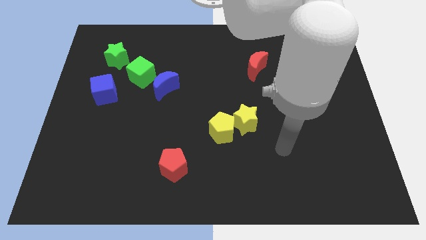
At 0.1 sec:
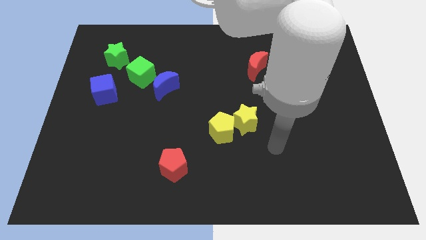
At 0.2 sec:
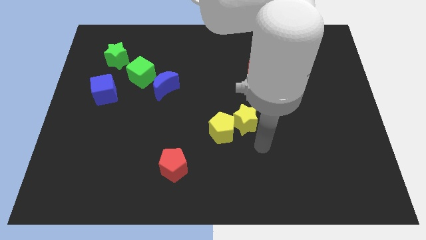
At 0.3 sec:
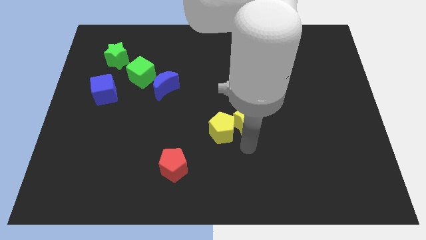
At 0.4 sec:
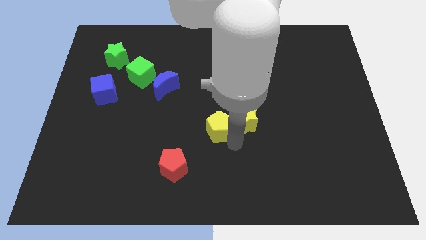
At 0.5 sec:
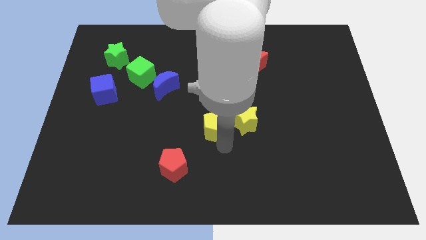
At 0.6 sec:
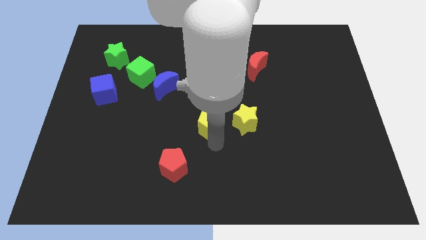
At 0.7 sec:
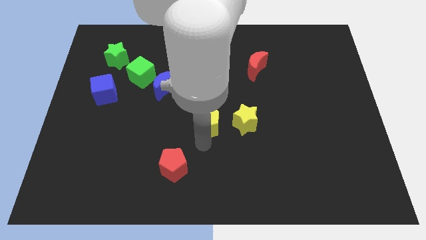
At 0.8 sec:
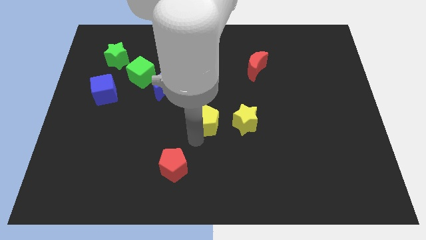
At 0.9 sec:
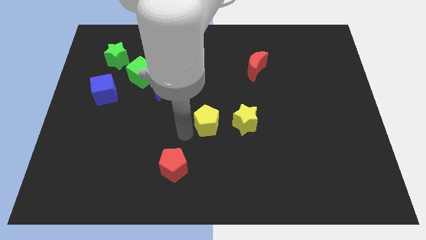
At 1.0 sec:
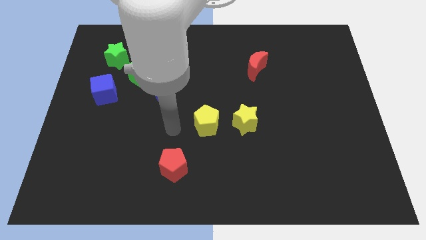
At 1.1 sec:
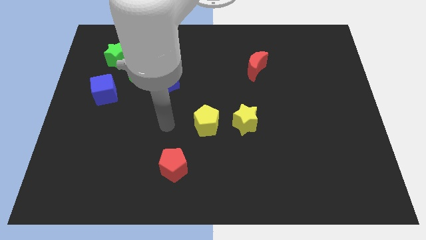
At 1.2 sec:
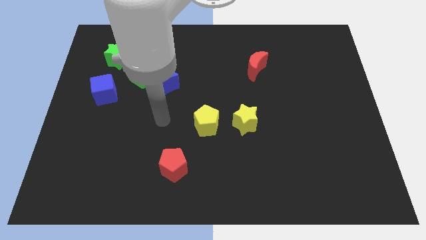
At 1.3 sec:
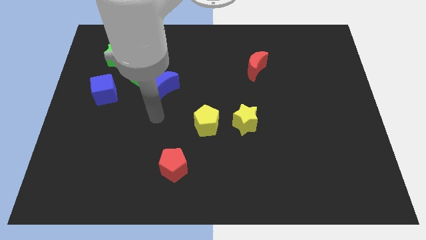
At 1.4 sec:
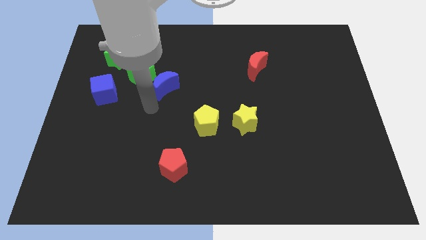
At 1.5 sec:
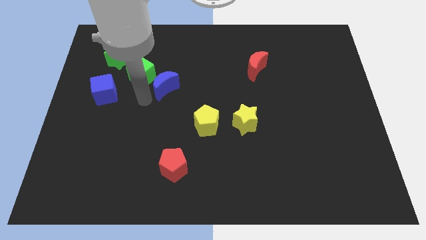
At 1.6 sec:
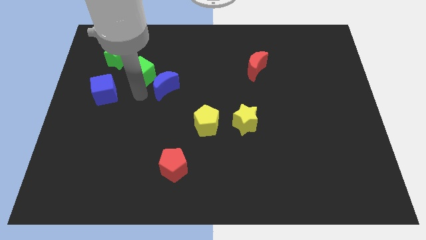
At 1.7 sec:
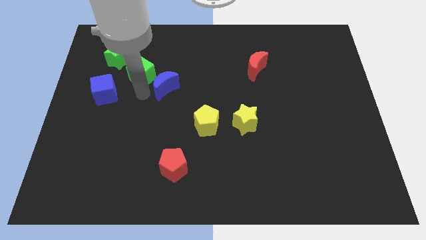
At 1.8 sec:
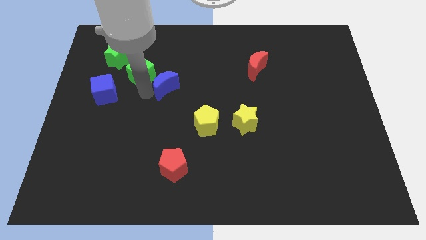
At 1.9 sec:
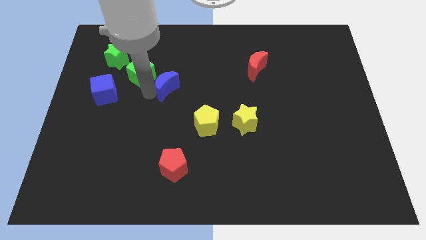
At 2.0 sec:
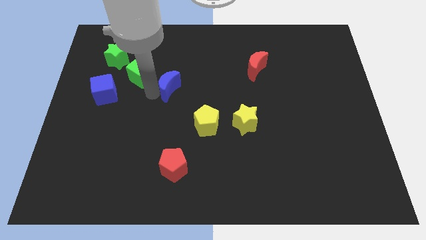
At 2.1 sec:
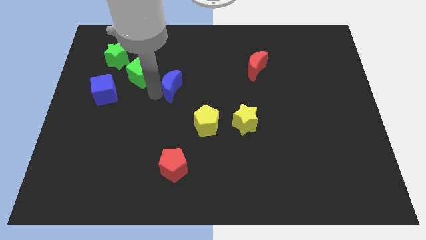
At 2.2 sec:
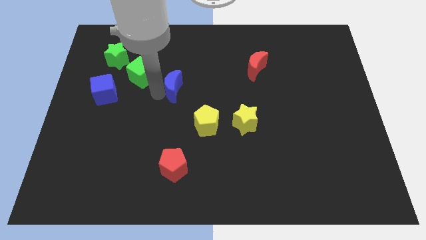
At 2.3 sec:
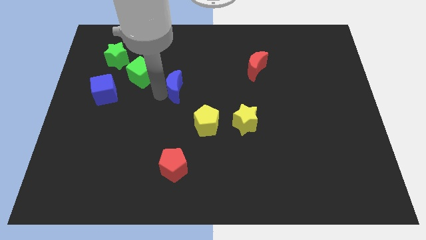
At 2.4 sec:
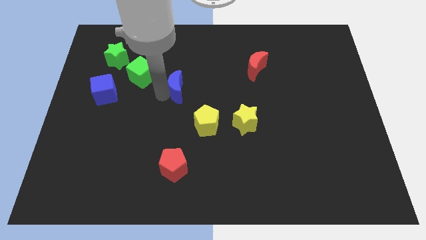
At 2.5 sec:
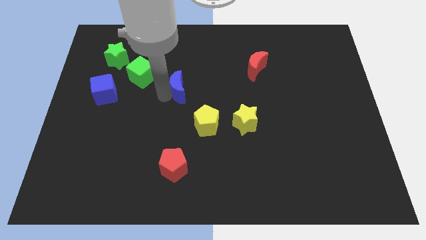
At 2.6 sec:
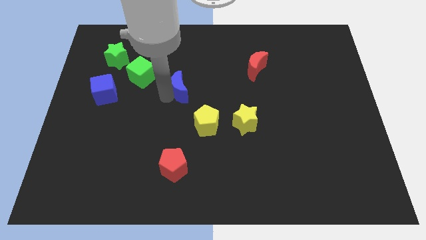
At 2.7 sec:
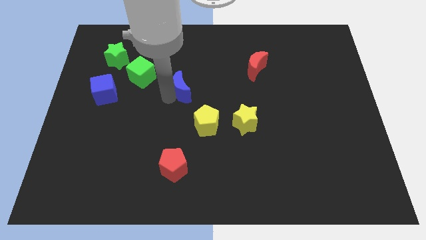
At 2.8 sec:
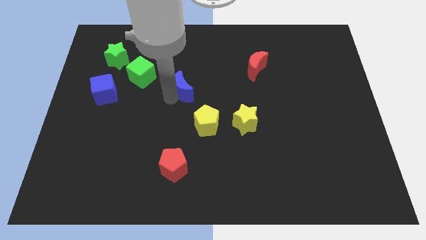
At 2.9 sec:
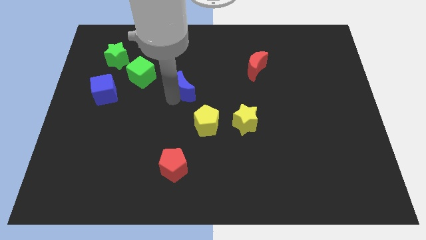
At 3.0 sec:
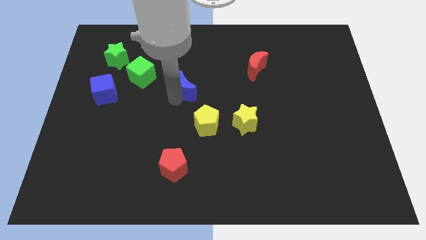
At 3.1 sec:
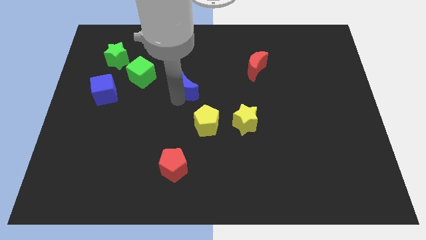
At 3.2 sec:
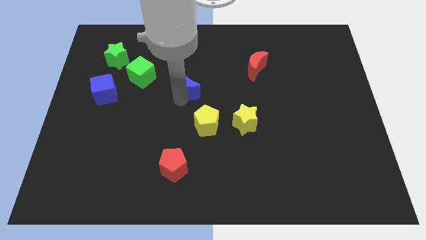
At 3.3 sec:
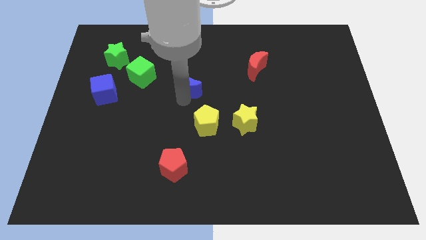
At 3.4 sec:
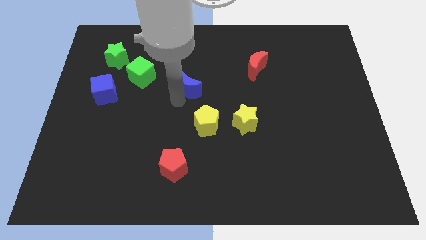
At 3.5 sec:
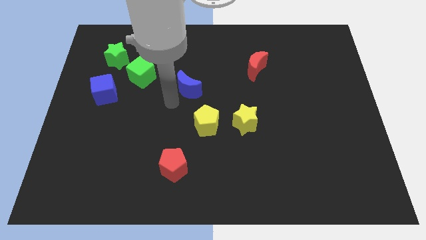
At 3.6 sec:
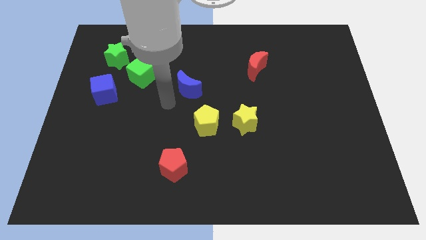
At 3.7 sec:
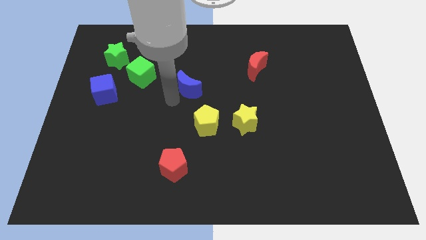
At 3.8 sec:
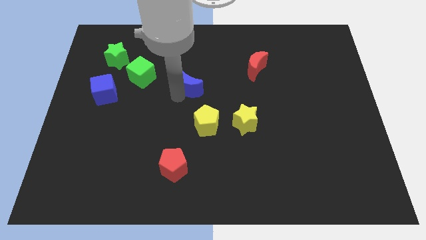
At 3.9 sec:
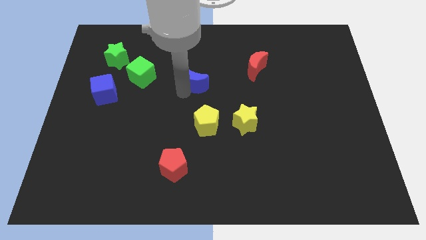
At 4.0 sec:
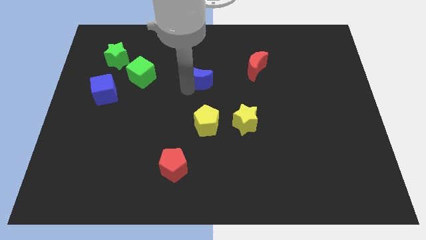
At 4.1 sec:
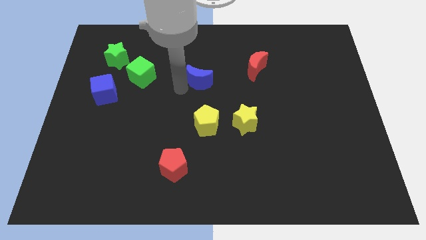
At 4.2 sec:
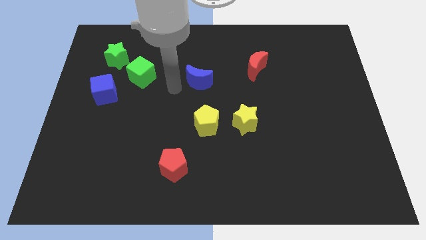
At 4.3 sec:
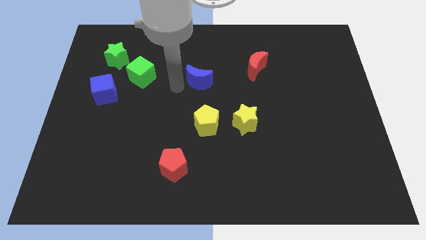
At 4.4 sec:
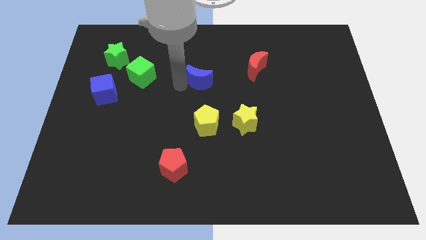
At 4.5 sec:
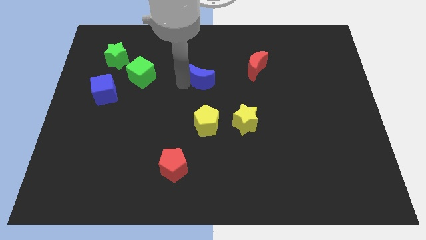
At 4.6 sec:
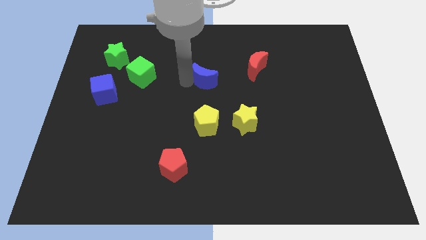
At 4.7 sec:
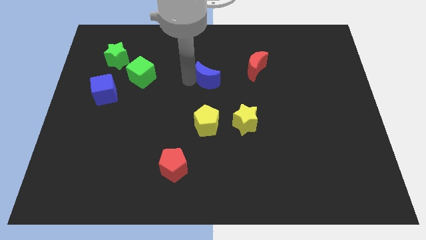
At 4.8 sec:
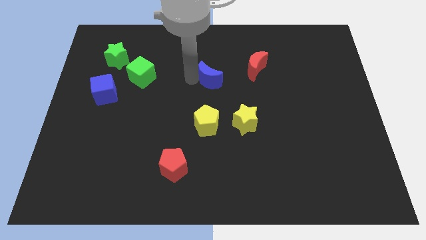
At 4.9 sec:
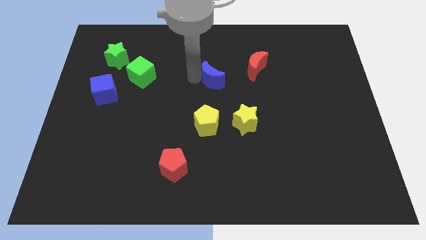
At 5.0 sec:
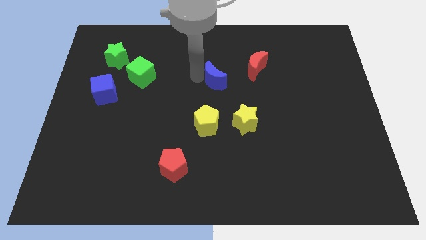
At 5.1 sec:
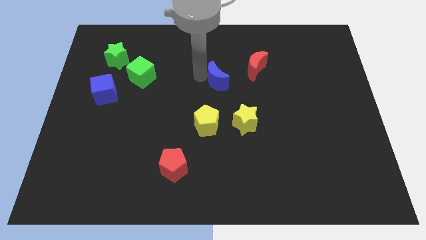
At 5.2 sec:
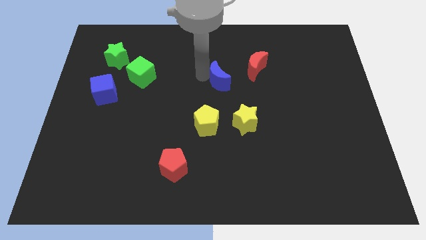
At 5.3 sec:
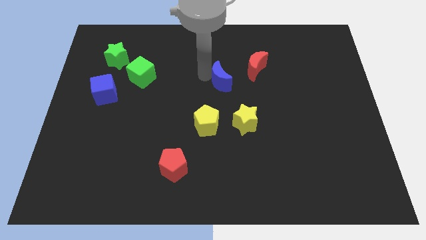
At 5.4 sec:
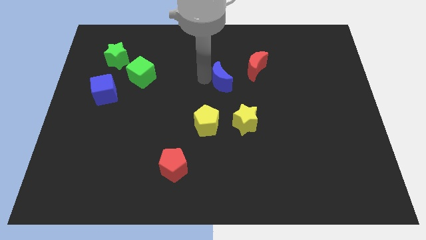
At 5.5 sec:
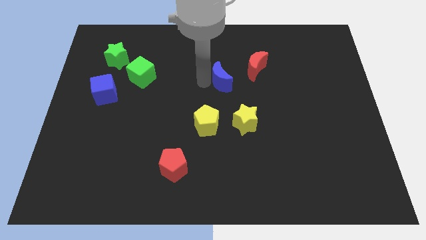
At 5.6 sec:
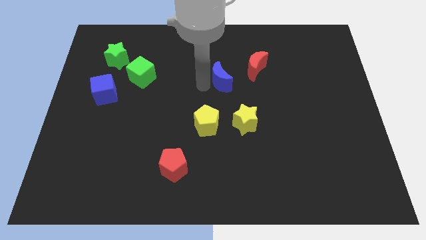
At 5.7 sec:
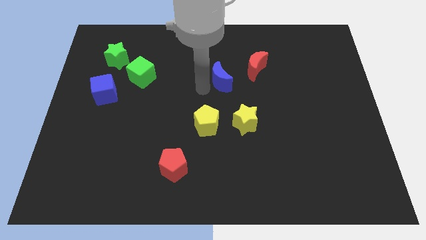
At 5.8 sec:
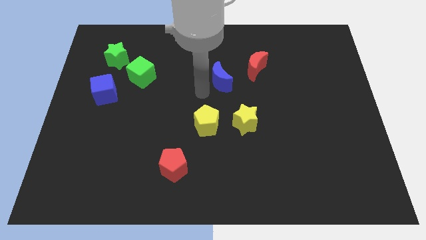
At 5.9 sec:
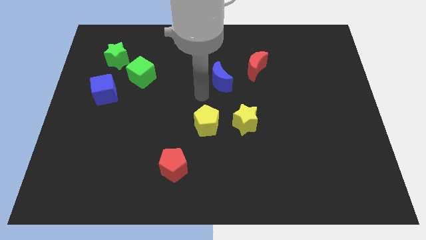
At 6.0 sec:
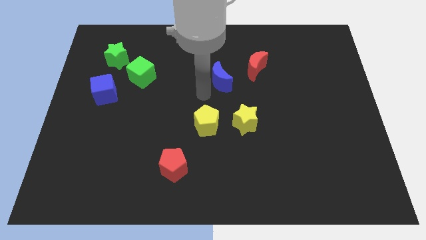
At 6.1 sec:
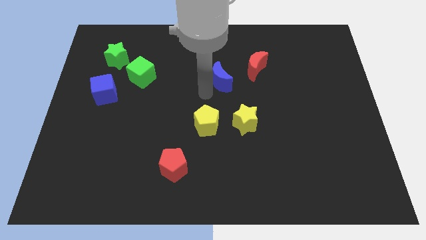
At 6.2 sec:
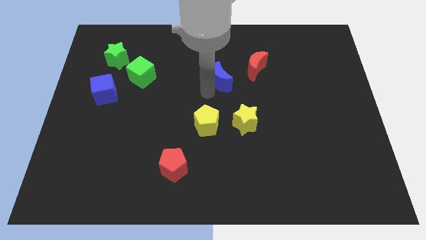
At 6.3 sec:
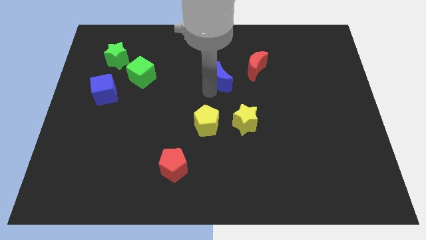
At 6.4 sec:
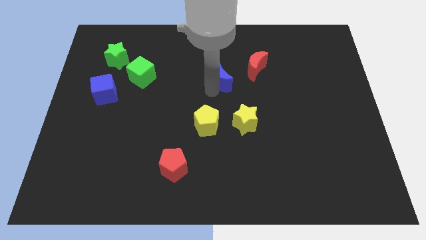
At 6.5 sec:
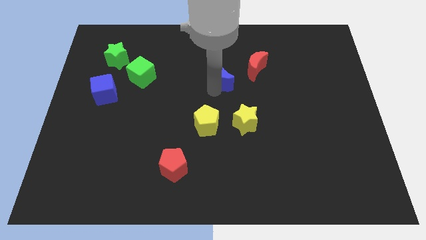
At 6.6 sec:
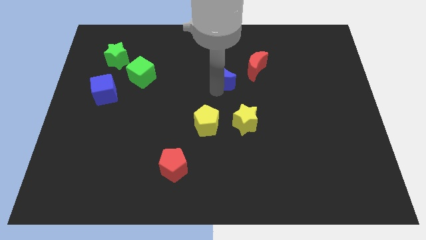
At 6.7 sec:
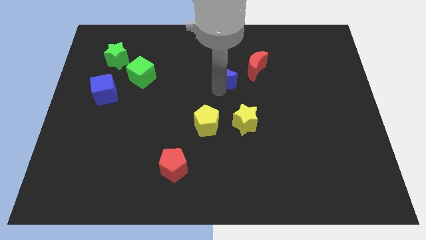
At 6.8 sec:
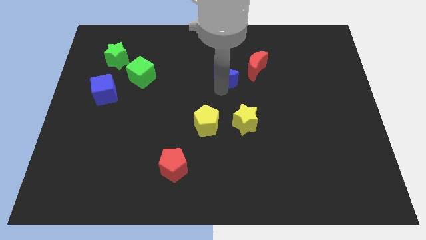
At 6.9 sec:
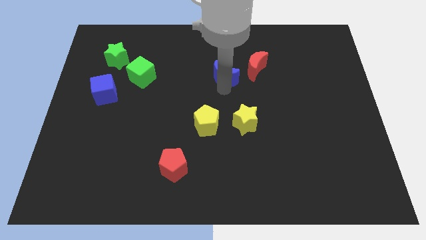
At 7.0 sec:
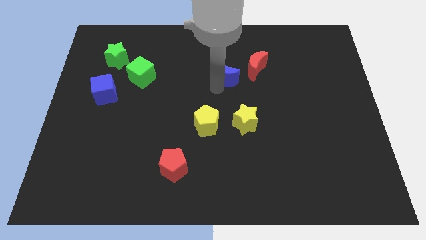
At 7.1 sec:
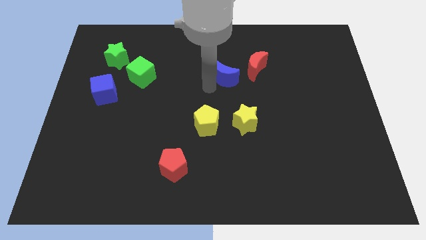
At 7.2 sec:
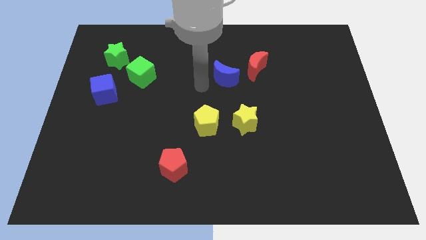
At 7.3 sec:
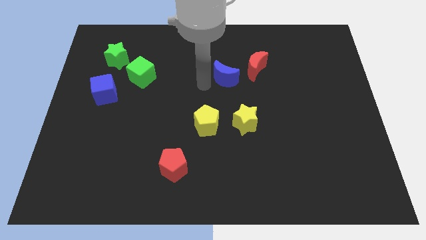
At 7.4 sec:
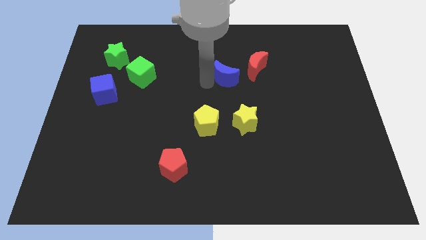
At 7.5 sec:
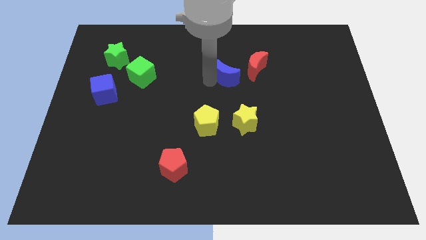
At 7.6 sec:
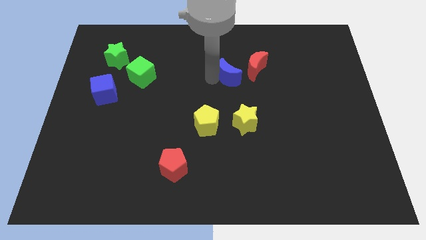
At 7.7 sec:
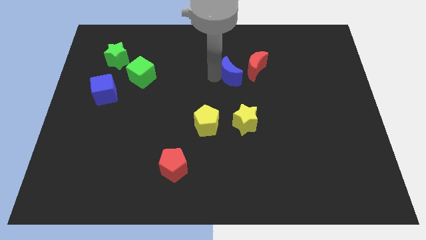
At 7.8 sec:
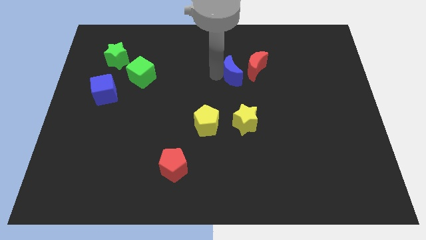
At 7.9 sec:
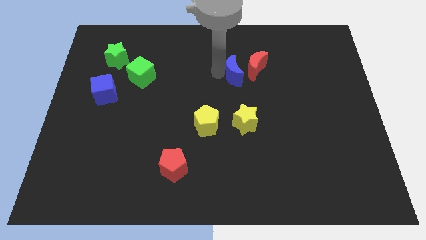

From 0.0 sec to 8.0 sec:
move the blue moon to the red moon
